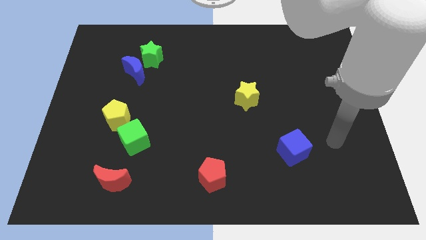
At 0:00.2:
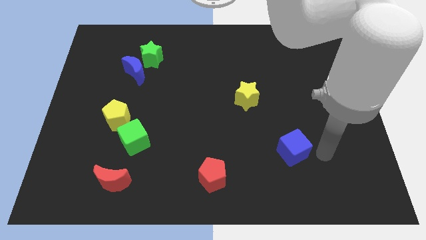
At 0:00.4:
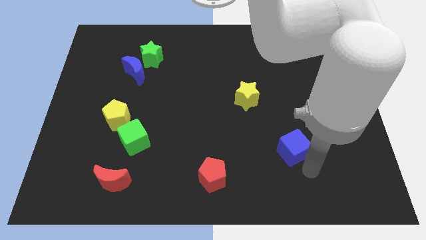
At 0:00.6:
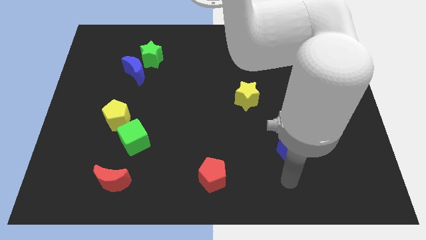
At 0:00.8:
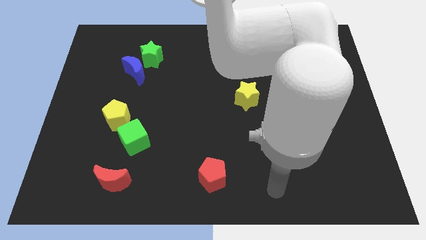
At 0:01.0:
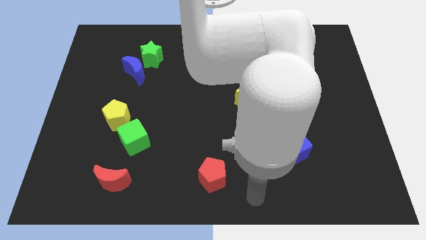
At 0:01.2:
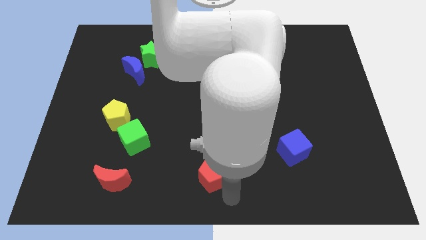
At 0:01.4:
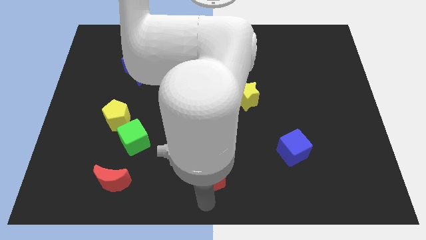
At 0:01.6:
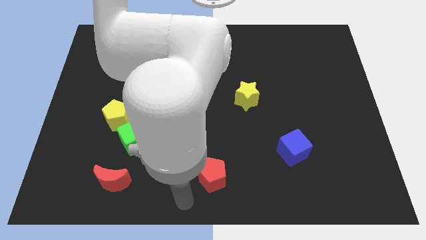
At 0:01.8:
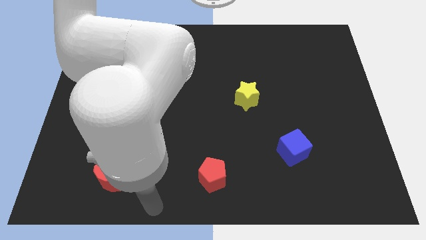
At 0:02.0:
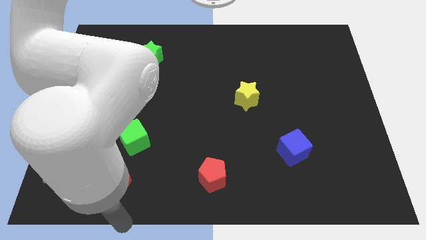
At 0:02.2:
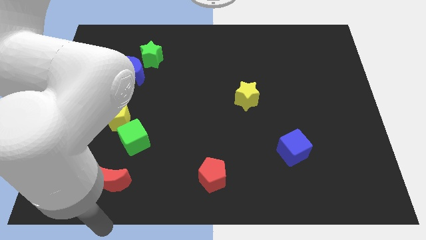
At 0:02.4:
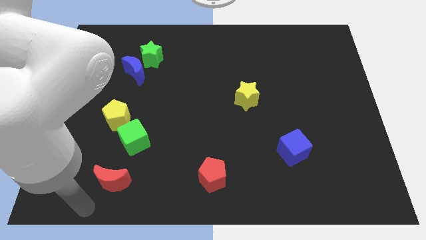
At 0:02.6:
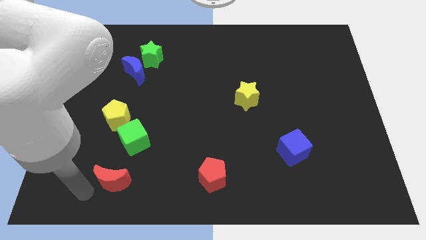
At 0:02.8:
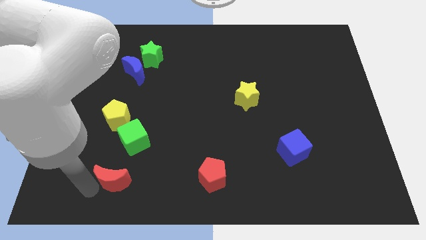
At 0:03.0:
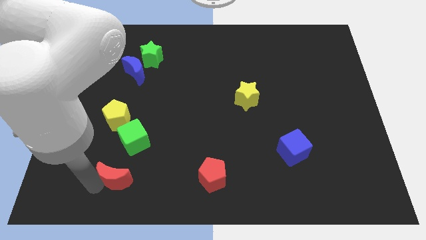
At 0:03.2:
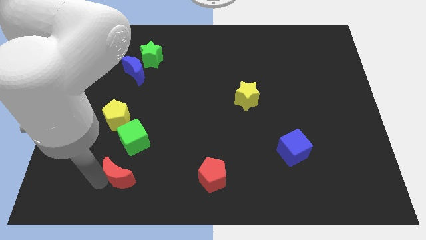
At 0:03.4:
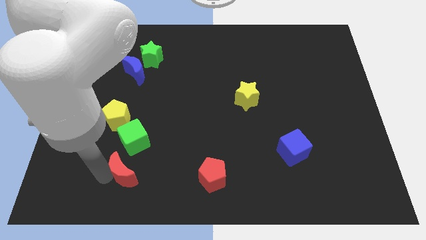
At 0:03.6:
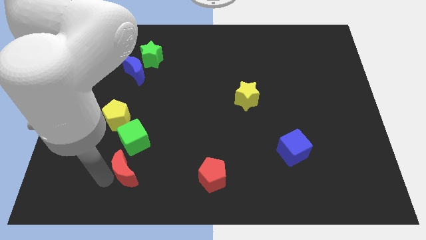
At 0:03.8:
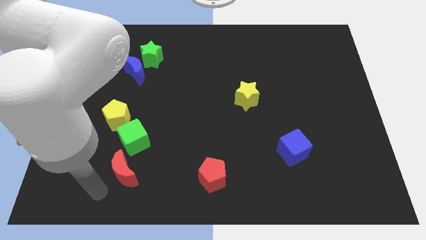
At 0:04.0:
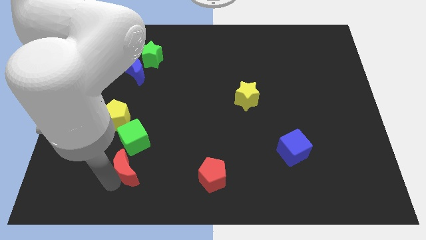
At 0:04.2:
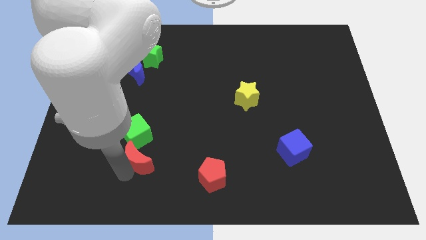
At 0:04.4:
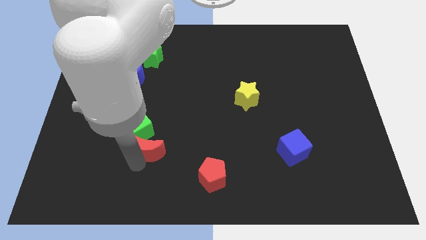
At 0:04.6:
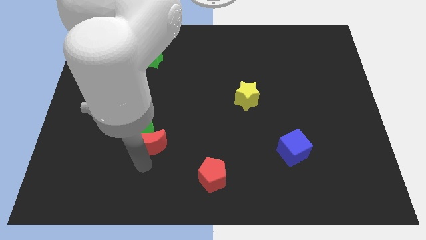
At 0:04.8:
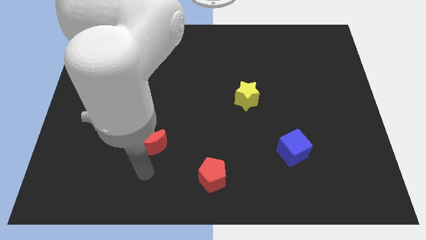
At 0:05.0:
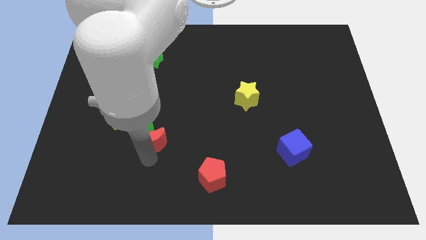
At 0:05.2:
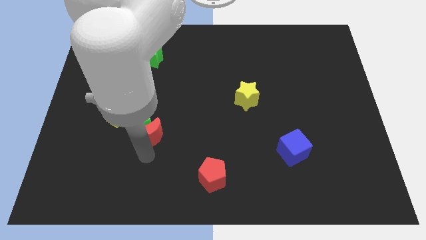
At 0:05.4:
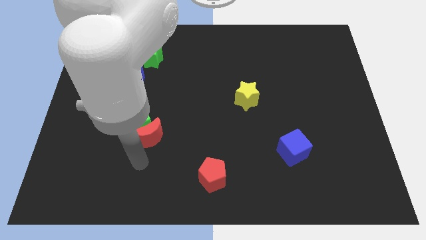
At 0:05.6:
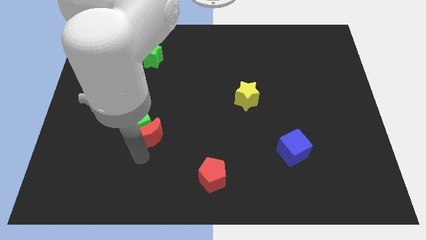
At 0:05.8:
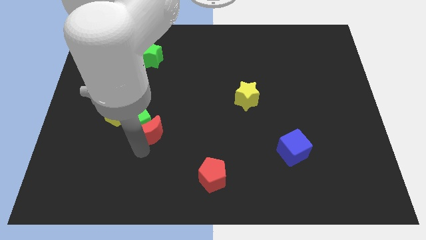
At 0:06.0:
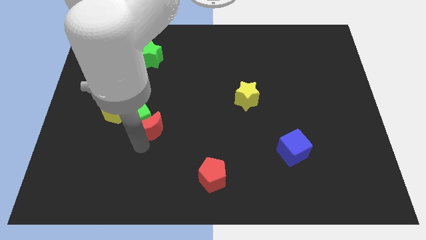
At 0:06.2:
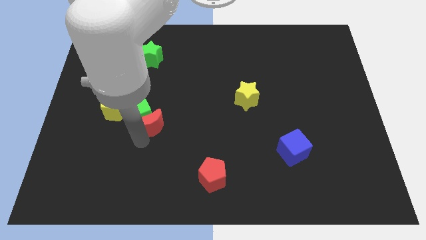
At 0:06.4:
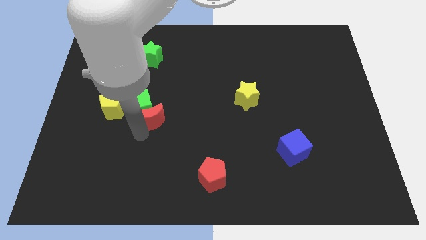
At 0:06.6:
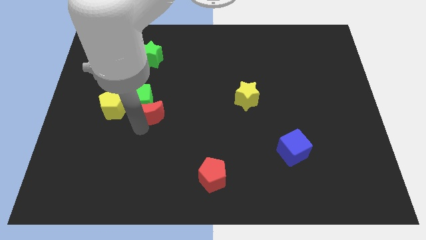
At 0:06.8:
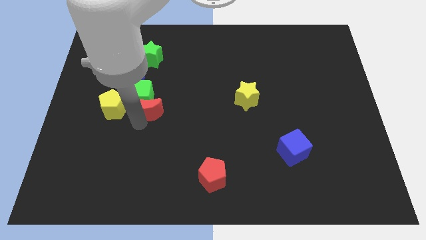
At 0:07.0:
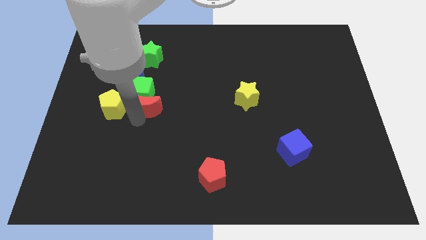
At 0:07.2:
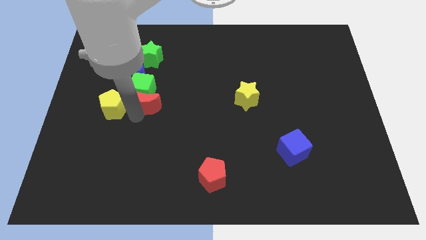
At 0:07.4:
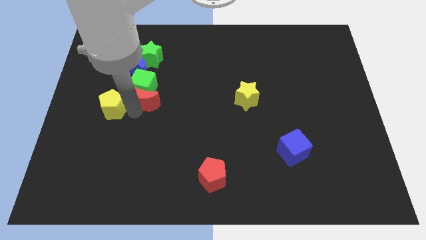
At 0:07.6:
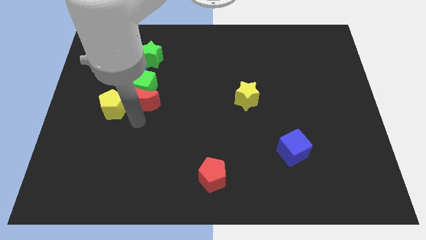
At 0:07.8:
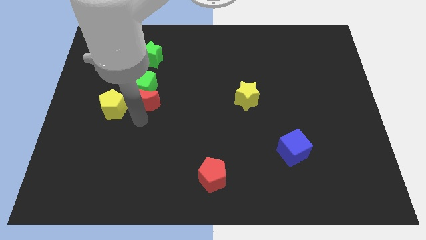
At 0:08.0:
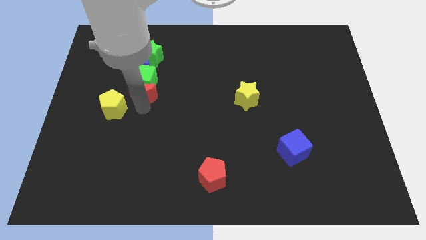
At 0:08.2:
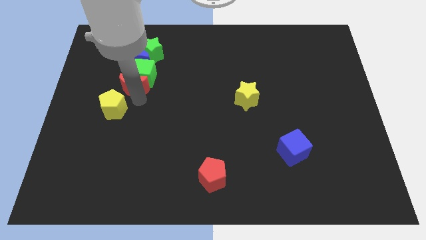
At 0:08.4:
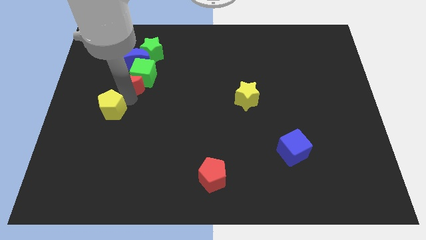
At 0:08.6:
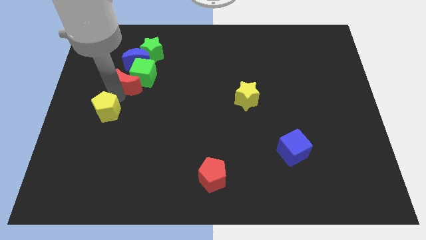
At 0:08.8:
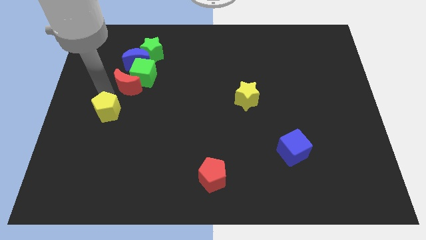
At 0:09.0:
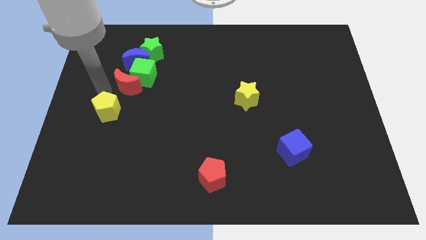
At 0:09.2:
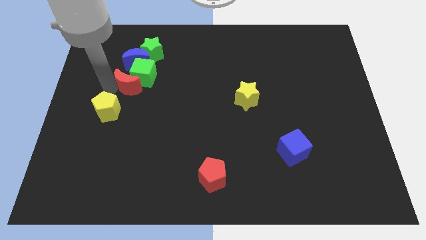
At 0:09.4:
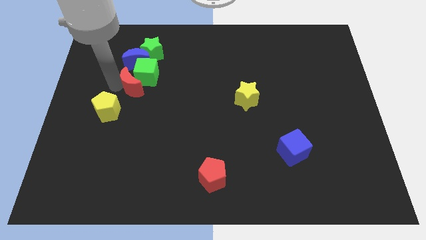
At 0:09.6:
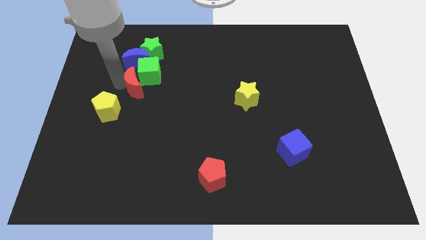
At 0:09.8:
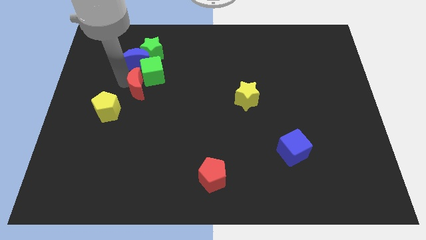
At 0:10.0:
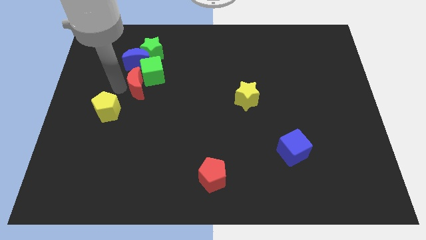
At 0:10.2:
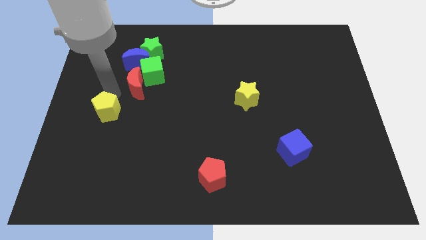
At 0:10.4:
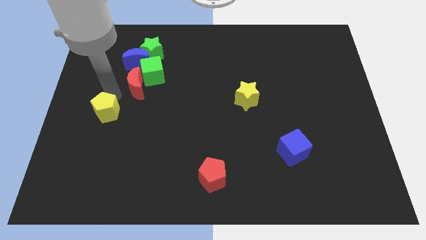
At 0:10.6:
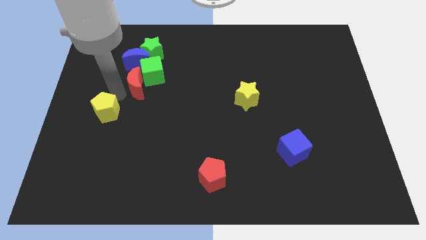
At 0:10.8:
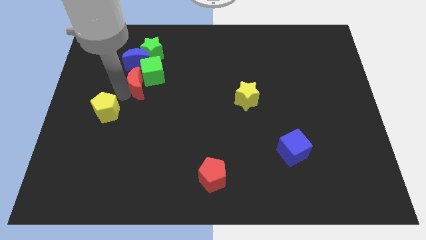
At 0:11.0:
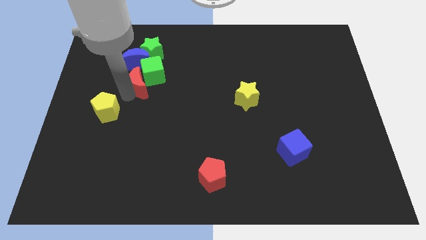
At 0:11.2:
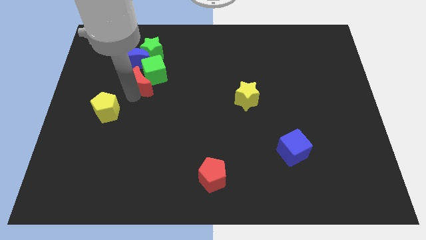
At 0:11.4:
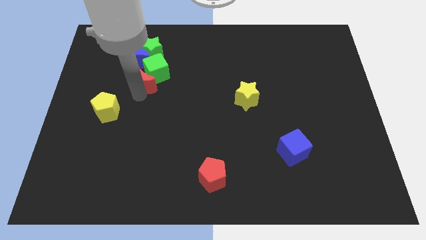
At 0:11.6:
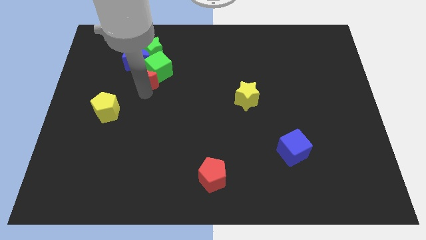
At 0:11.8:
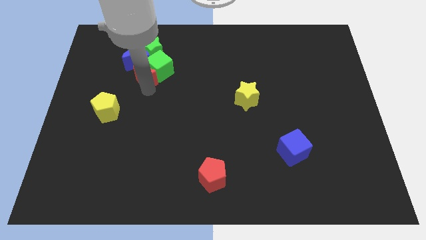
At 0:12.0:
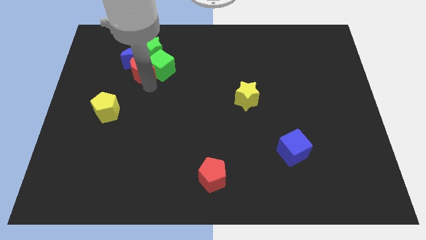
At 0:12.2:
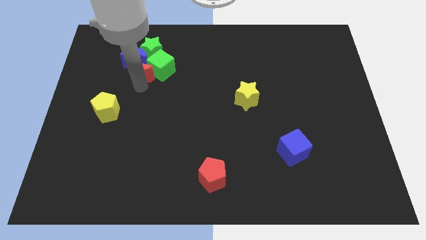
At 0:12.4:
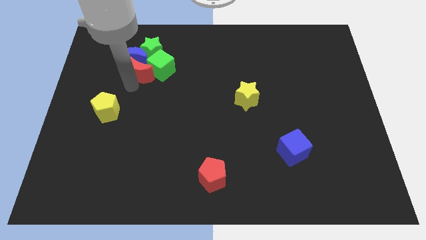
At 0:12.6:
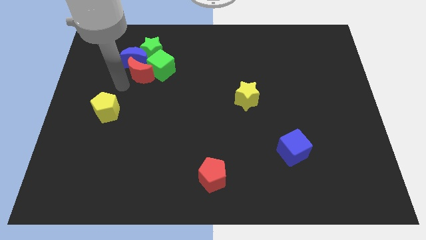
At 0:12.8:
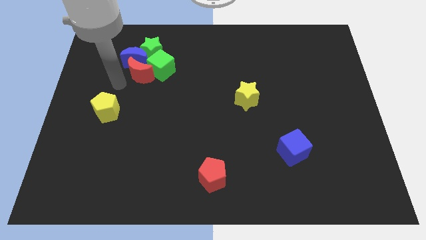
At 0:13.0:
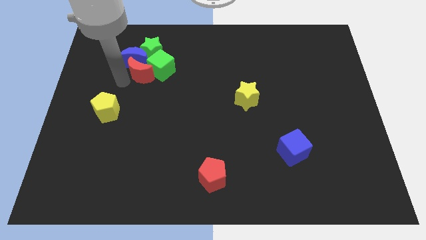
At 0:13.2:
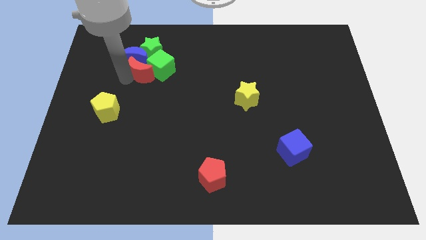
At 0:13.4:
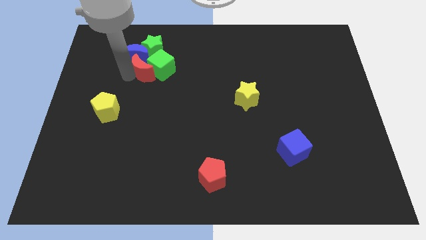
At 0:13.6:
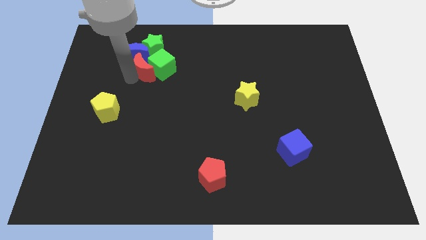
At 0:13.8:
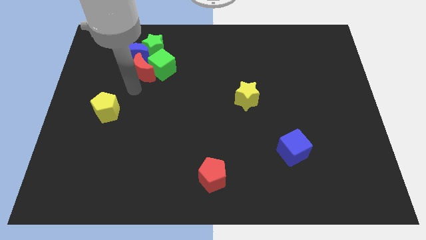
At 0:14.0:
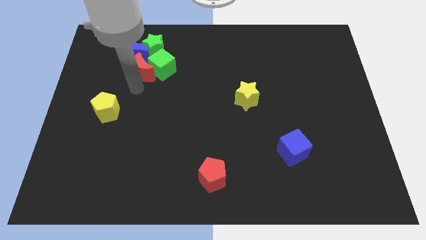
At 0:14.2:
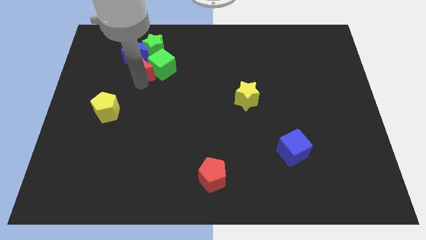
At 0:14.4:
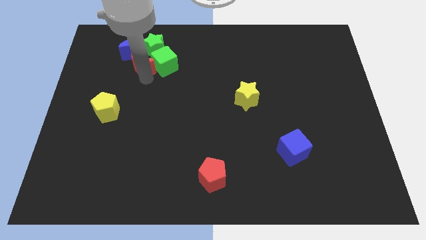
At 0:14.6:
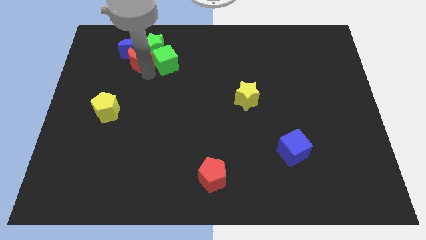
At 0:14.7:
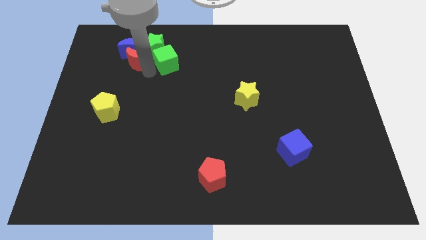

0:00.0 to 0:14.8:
move the red moon to the green star
